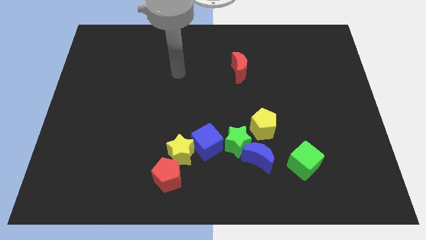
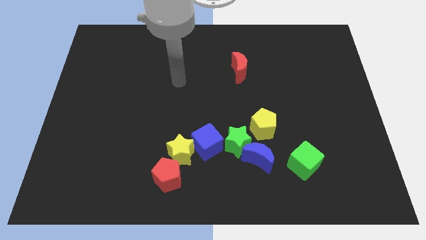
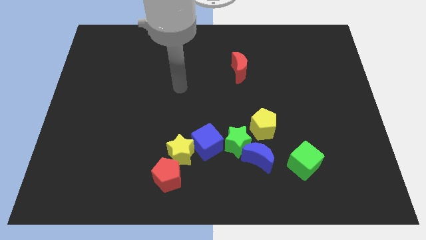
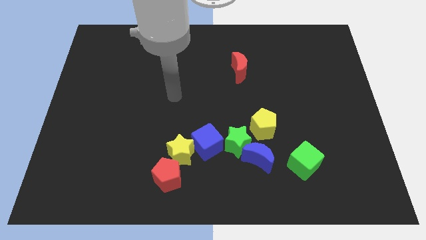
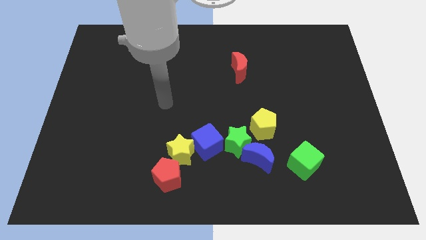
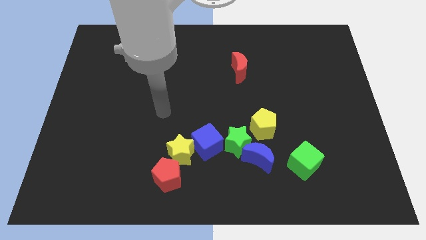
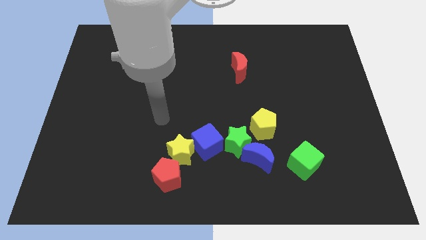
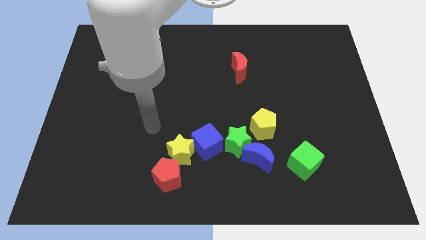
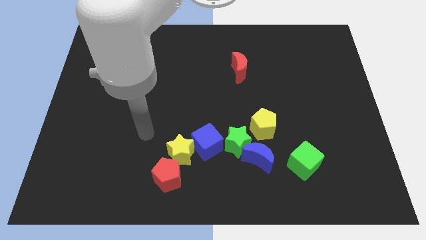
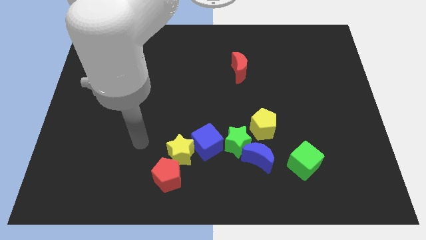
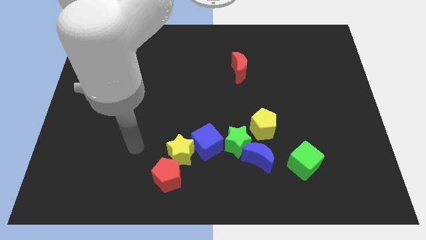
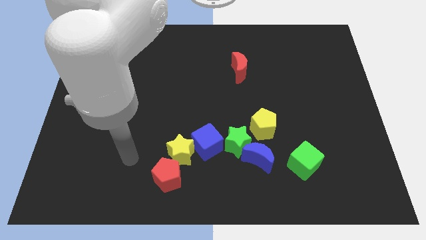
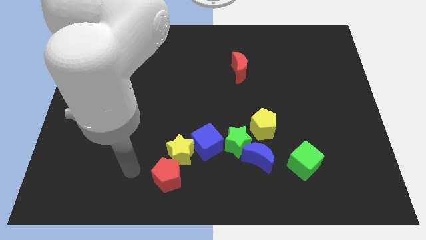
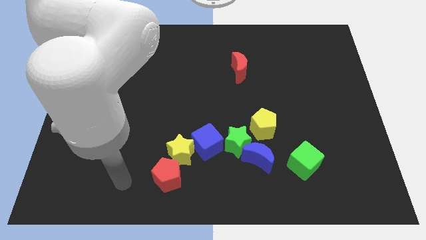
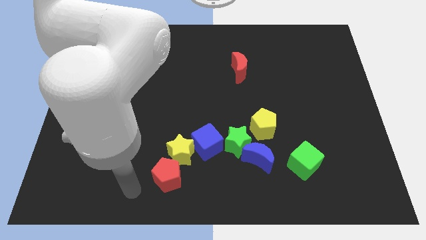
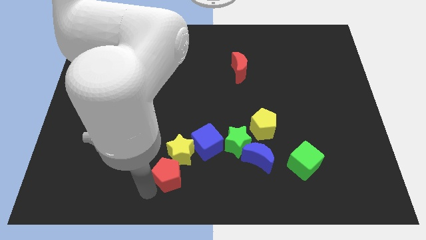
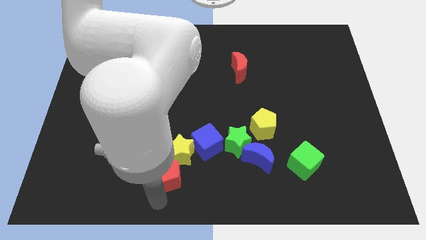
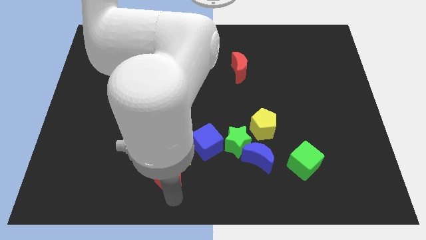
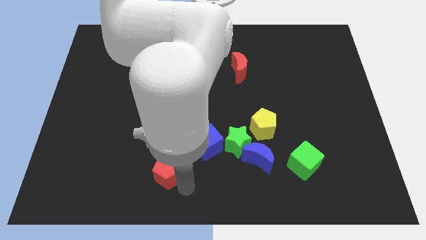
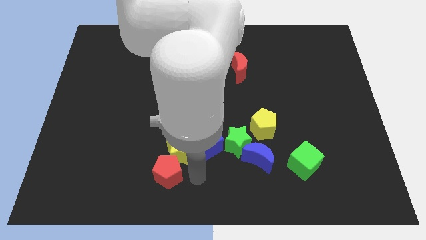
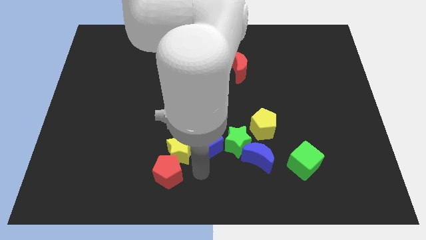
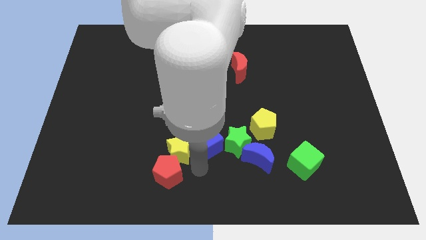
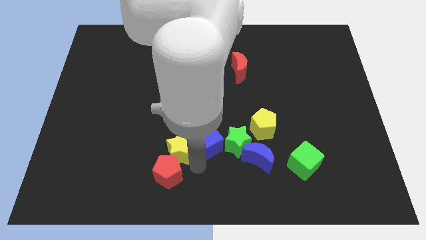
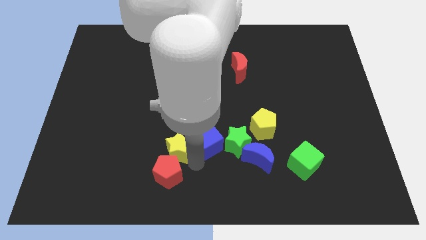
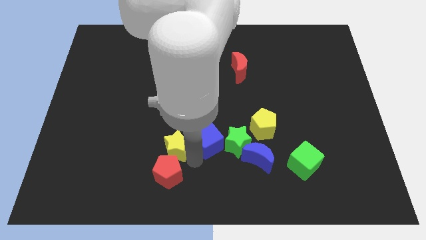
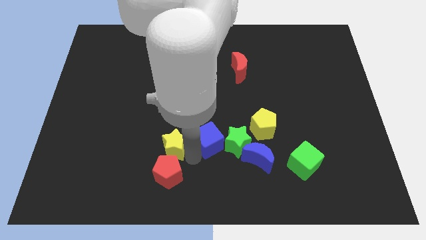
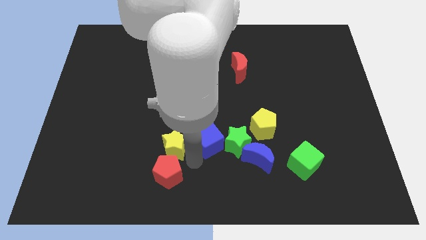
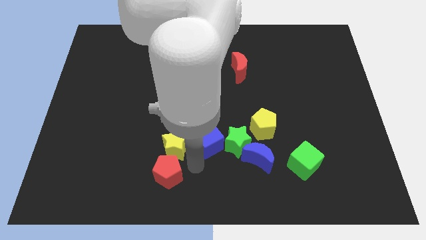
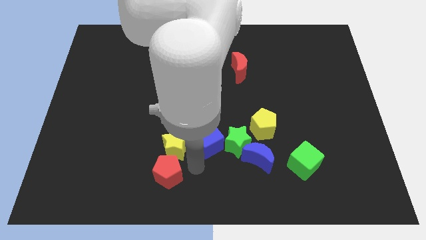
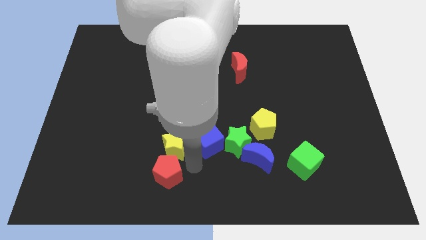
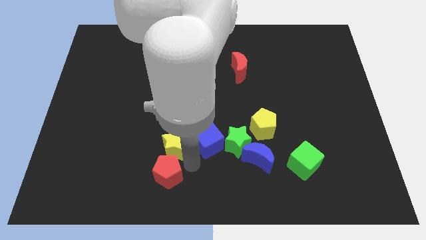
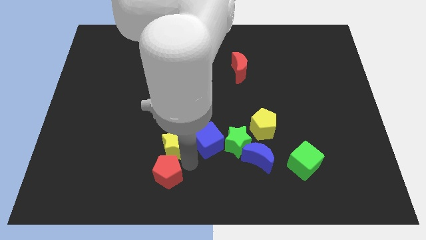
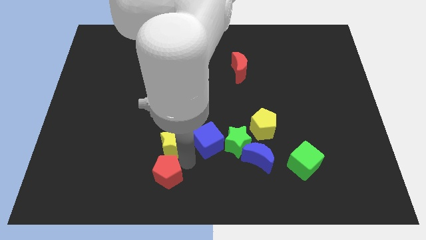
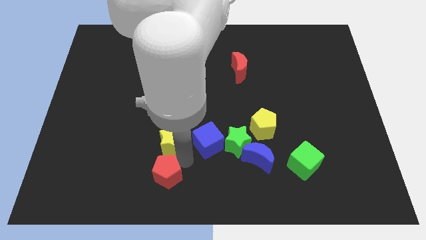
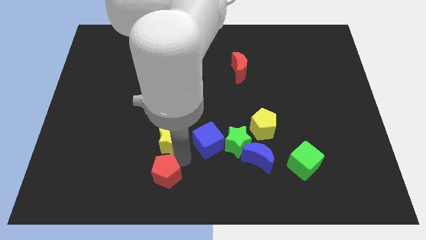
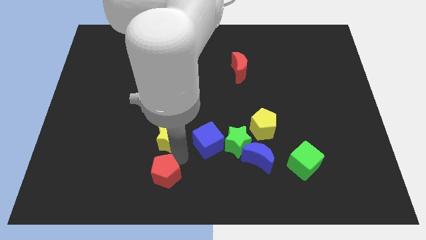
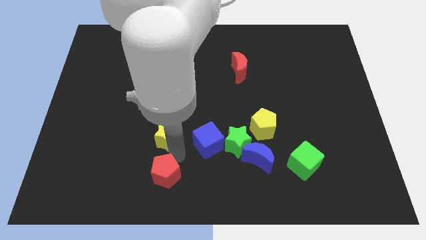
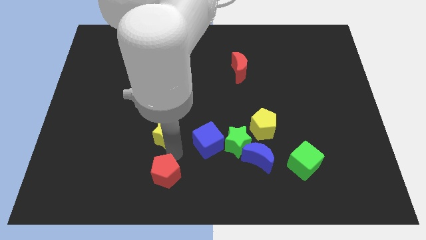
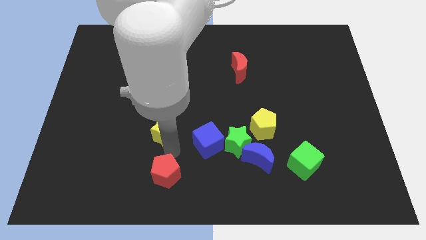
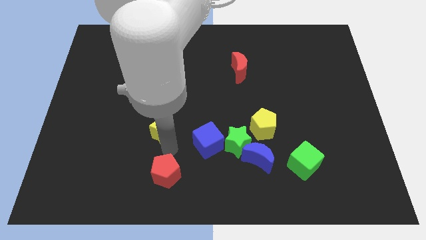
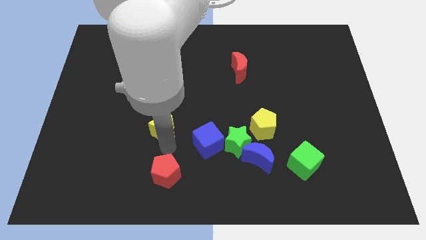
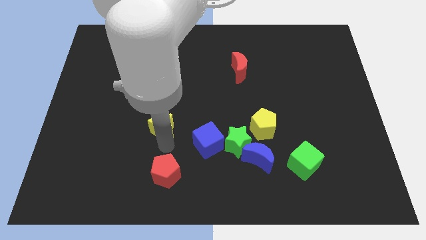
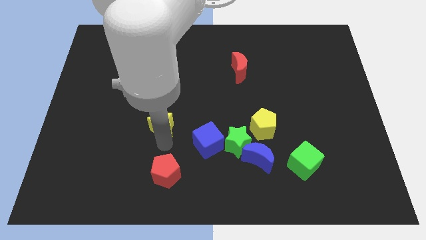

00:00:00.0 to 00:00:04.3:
move the yellow star away from the blue cube and red pentagon

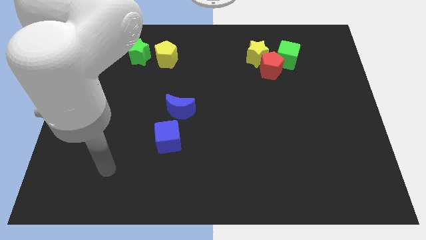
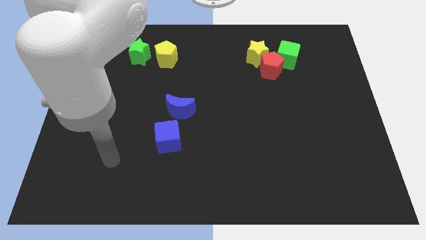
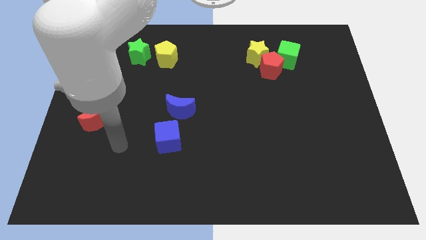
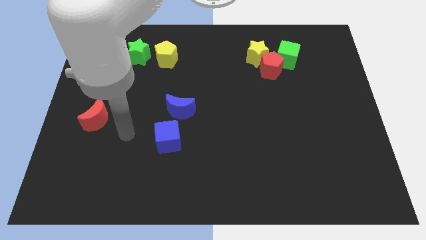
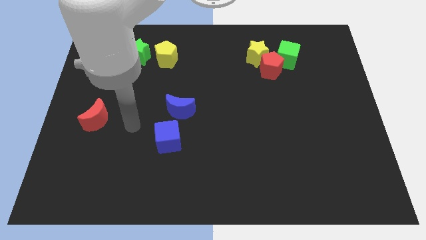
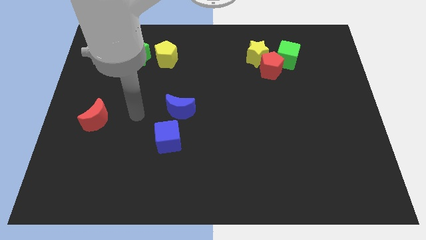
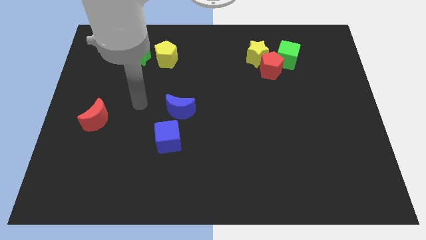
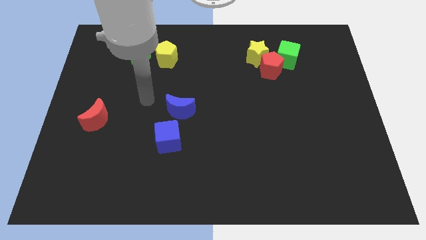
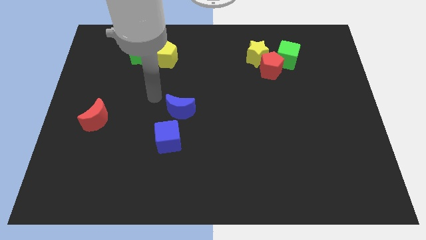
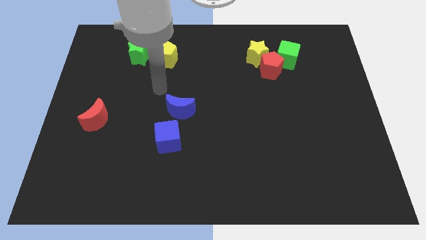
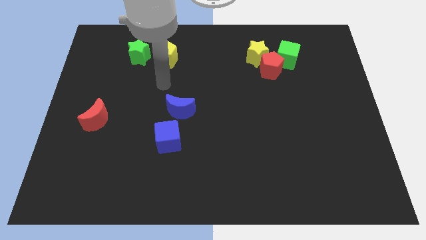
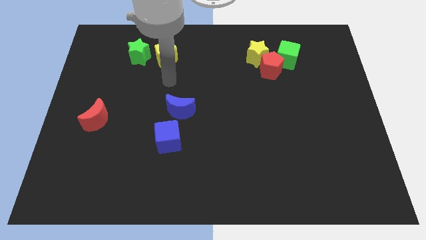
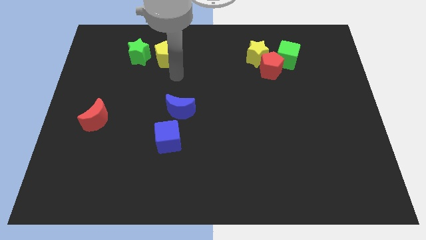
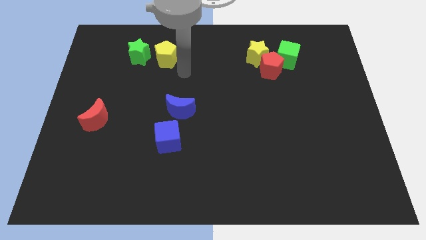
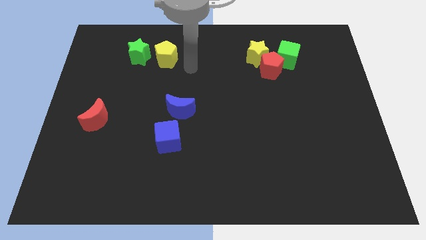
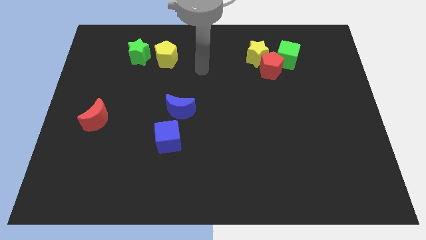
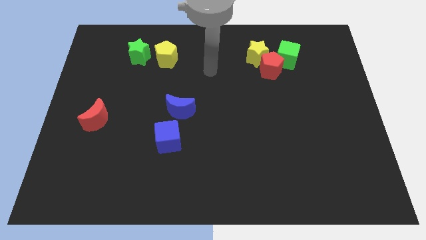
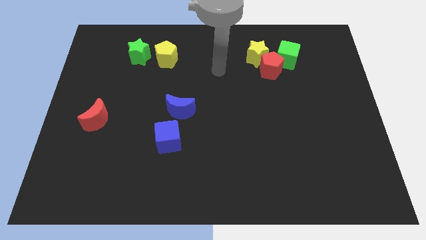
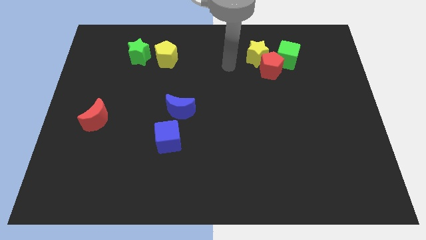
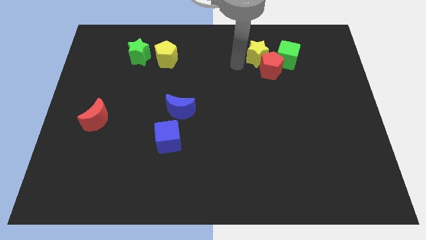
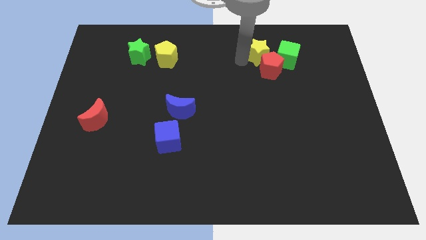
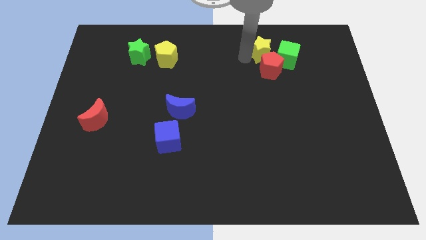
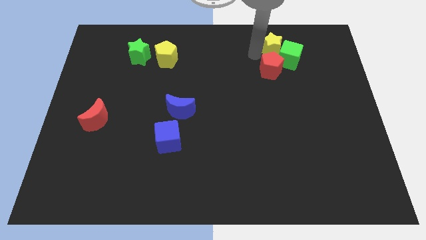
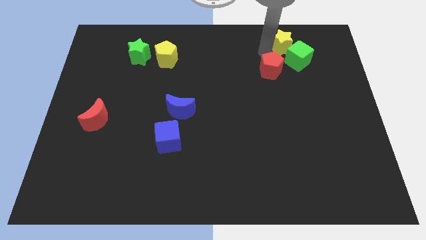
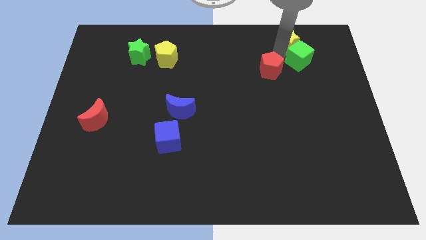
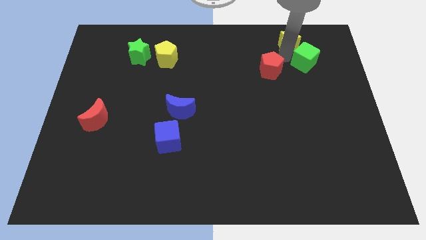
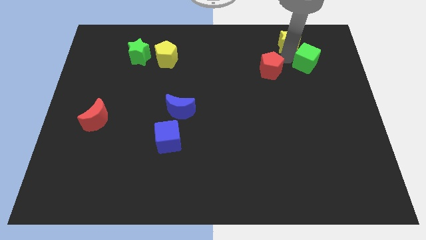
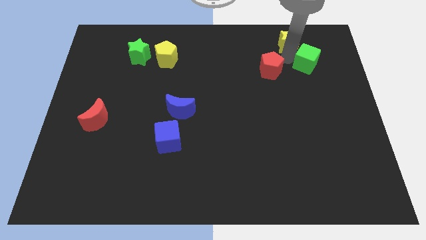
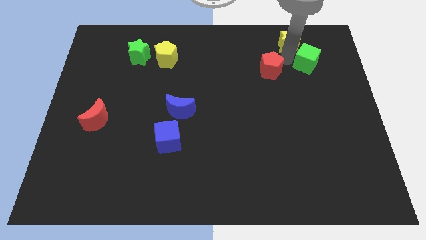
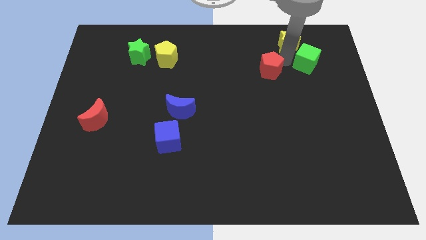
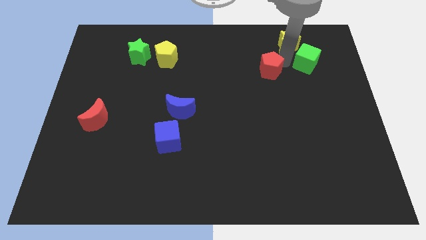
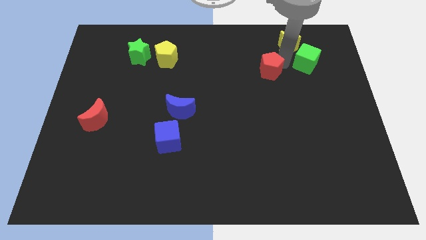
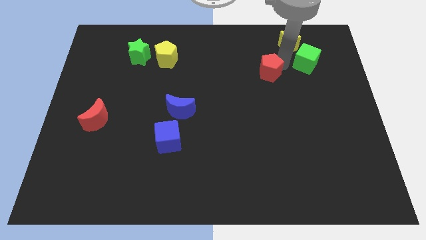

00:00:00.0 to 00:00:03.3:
pull the red pentagon apart from the yellow star and green cube

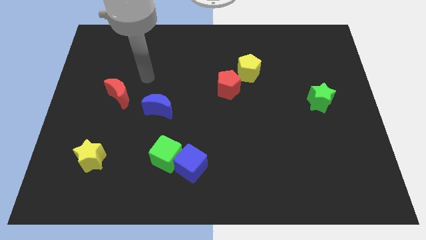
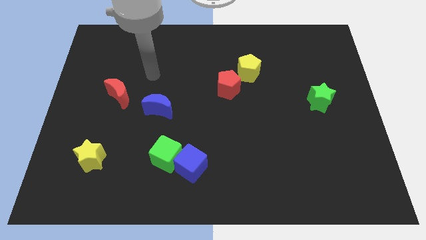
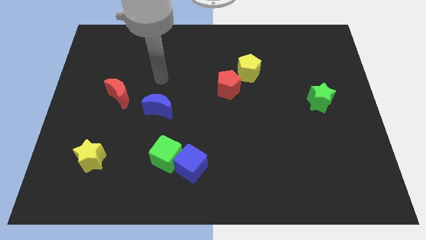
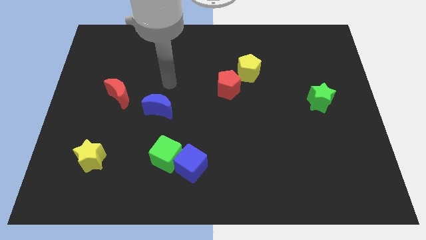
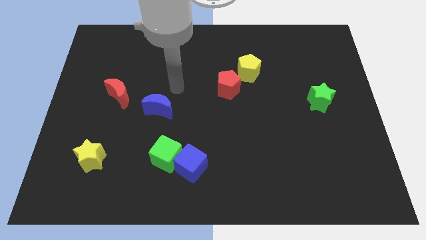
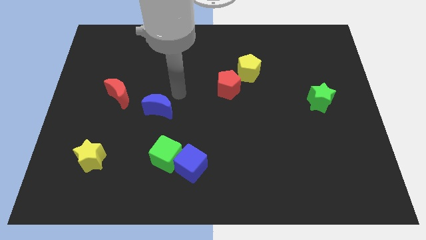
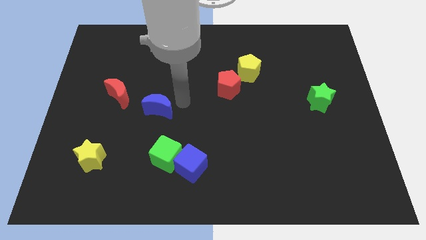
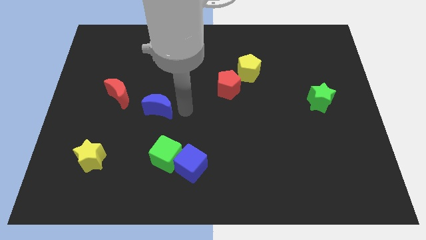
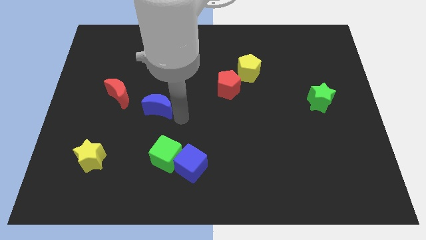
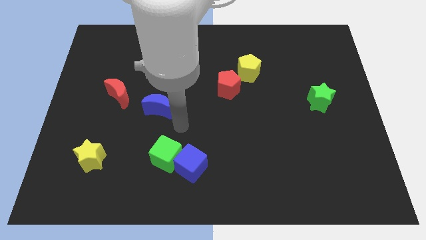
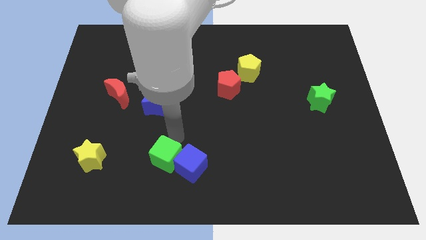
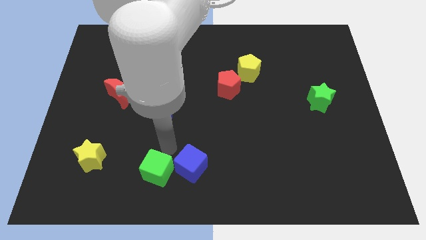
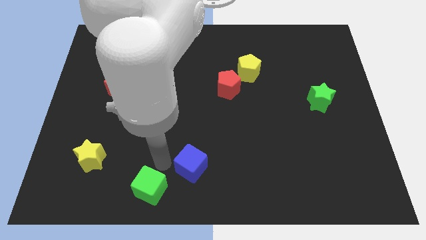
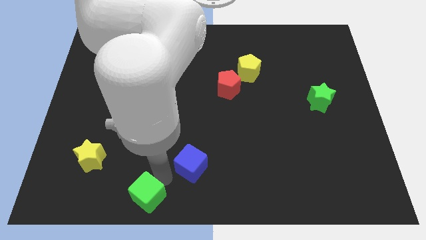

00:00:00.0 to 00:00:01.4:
separate the blue cube from the green cube

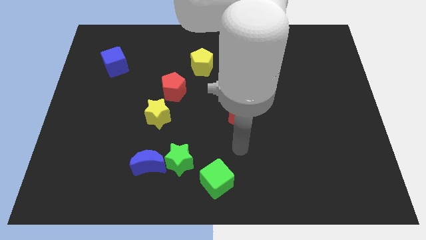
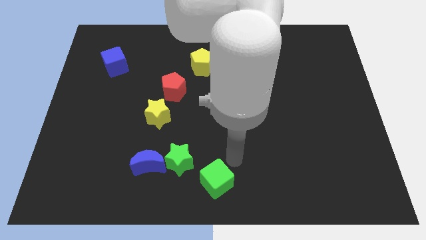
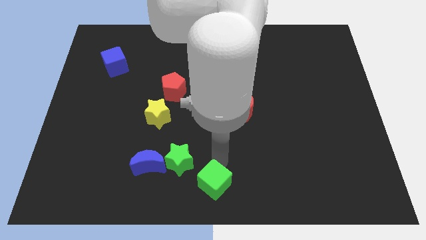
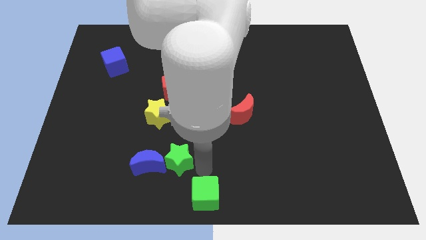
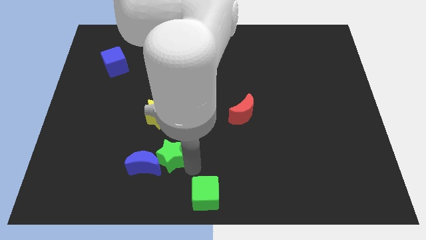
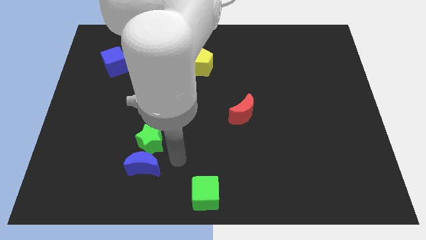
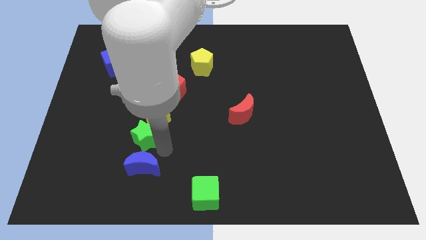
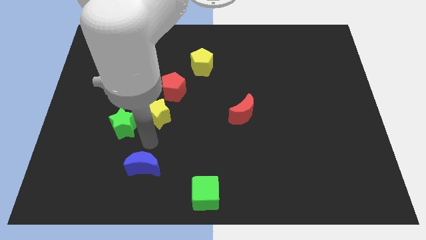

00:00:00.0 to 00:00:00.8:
move the blue moon away from the green star
